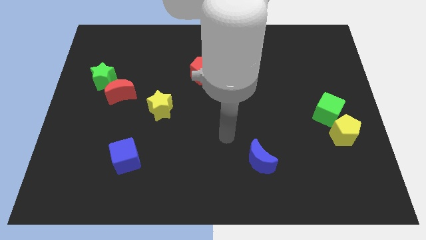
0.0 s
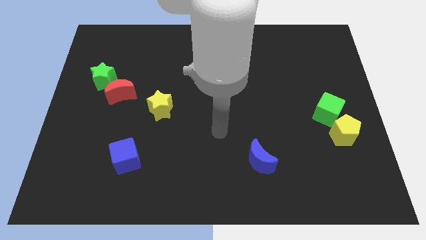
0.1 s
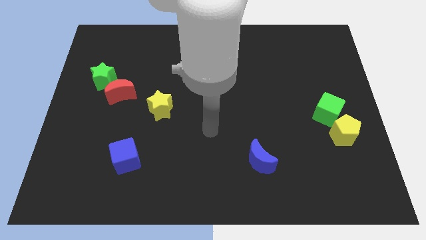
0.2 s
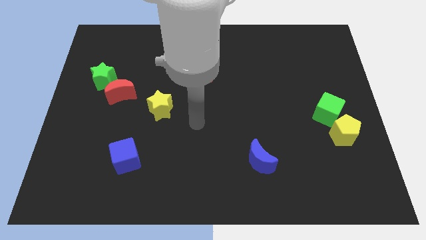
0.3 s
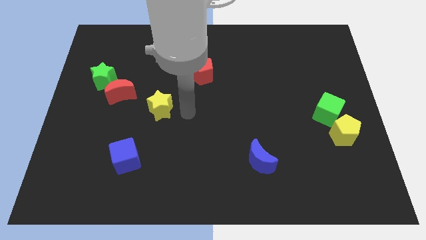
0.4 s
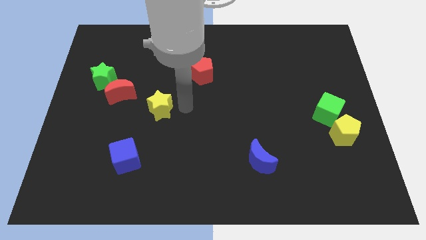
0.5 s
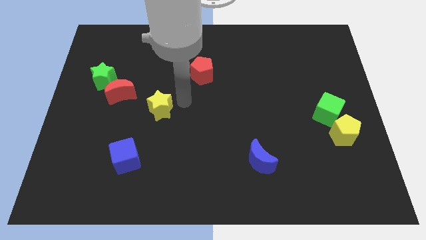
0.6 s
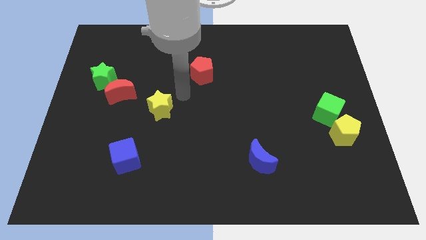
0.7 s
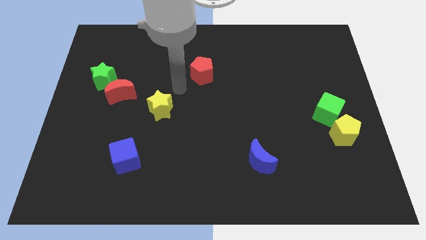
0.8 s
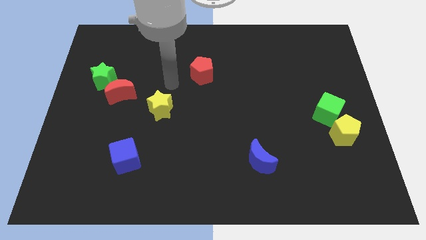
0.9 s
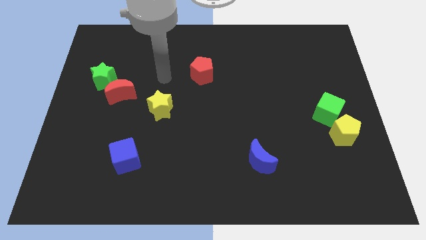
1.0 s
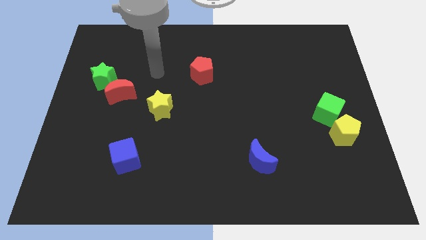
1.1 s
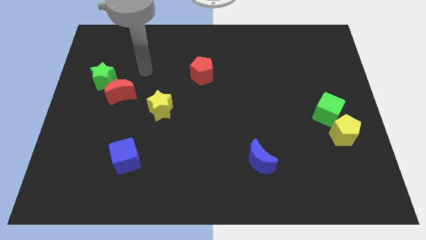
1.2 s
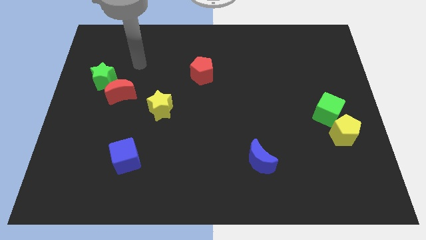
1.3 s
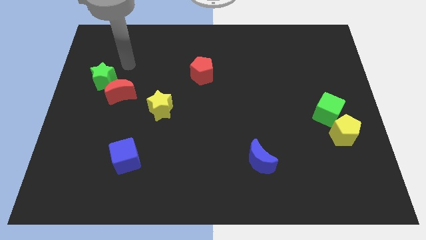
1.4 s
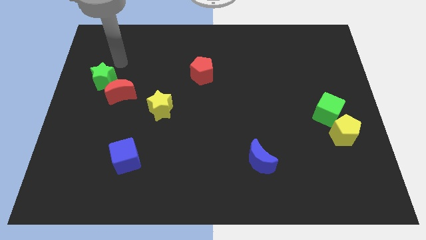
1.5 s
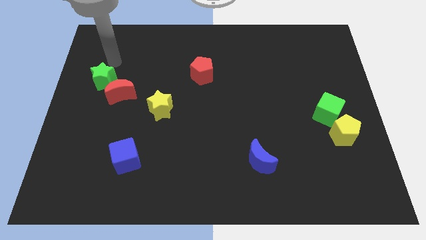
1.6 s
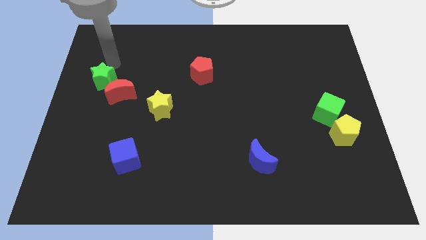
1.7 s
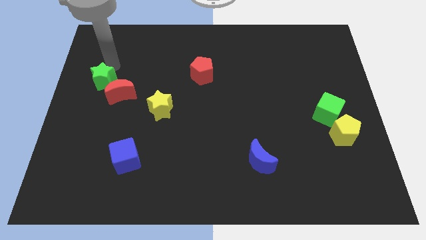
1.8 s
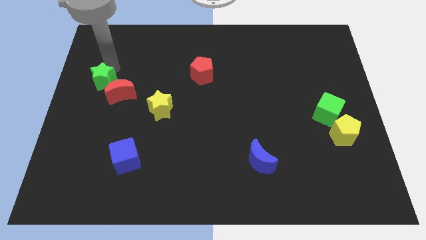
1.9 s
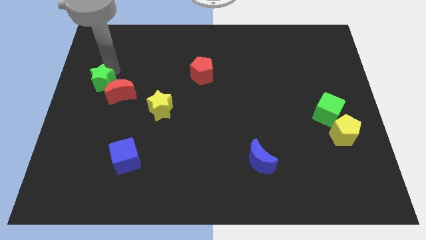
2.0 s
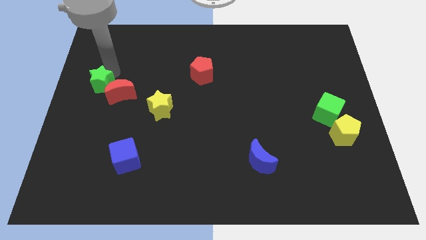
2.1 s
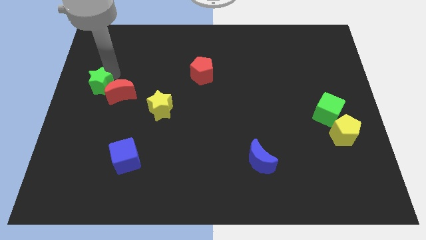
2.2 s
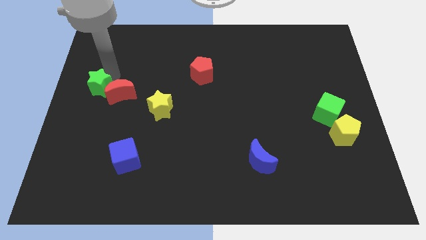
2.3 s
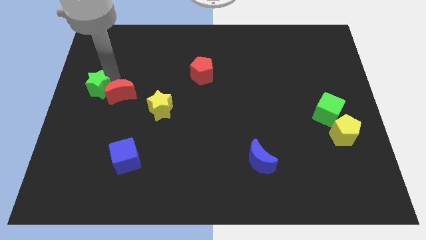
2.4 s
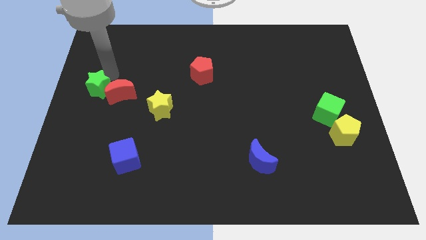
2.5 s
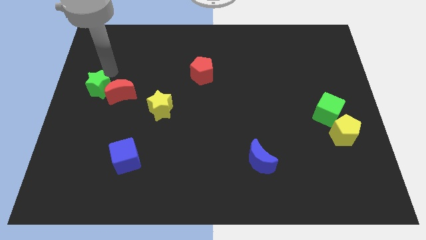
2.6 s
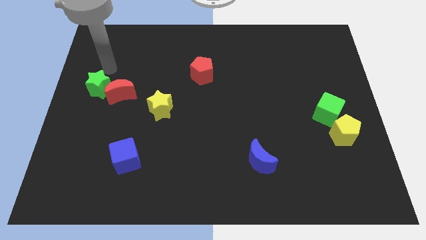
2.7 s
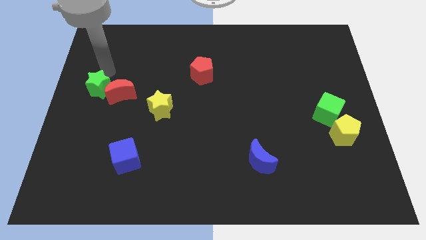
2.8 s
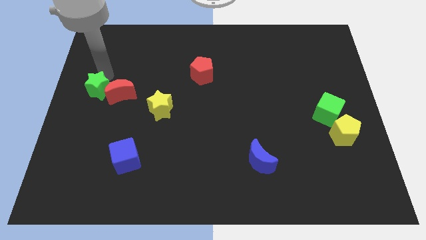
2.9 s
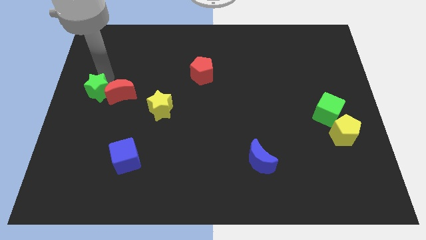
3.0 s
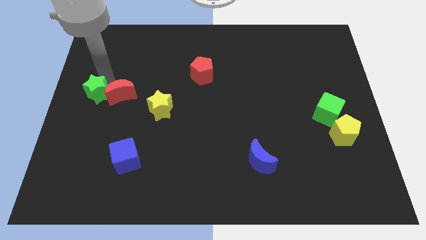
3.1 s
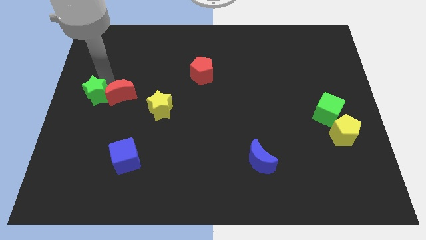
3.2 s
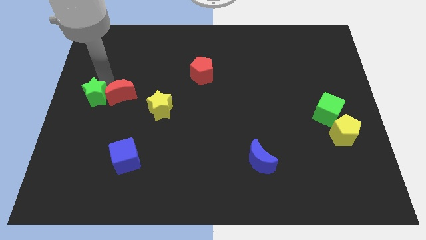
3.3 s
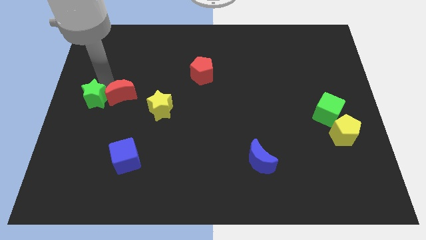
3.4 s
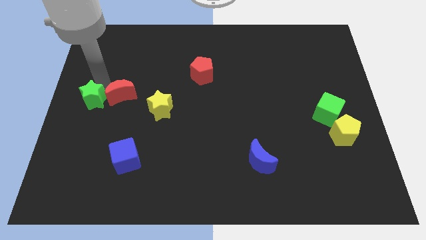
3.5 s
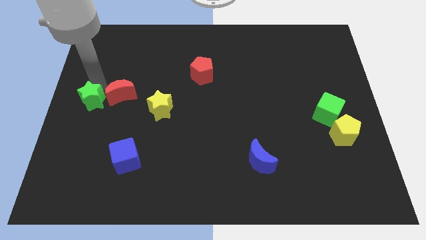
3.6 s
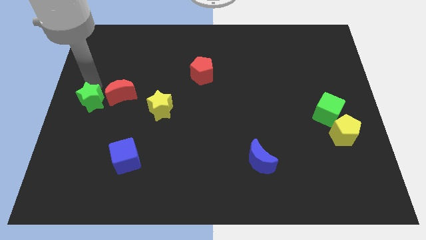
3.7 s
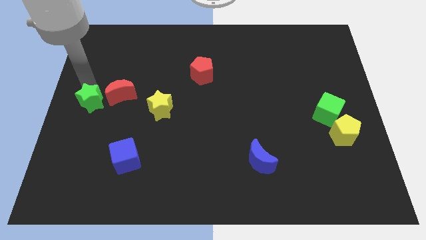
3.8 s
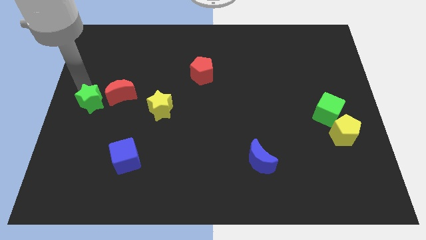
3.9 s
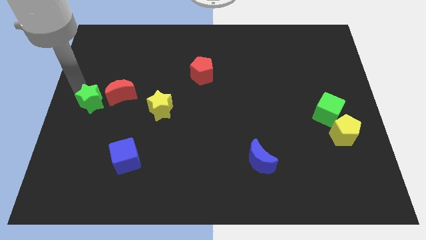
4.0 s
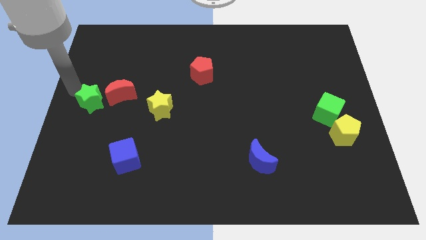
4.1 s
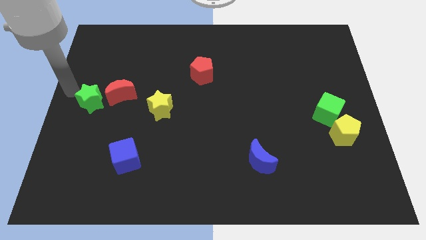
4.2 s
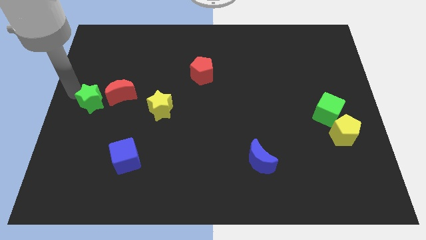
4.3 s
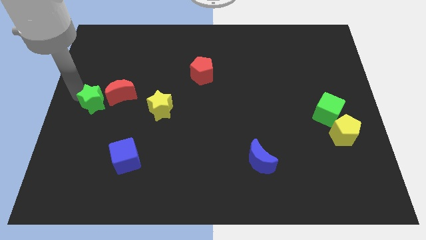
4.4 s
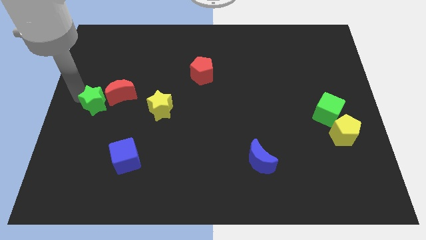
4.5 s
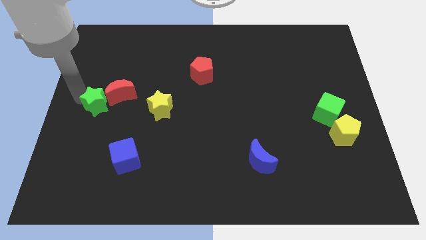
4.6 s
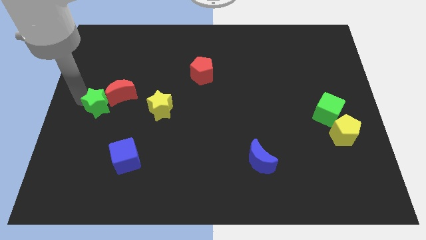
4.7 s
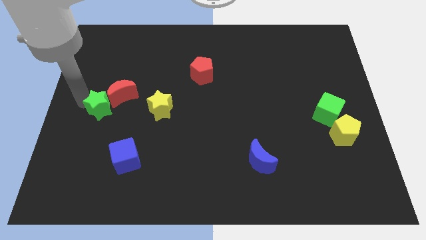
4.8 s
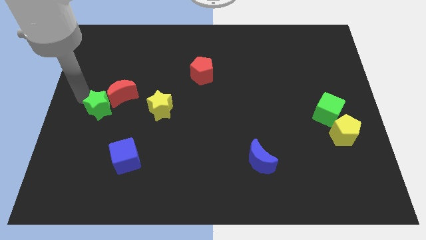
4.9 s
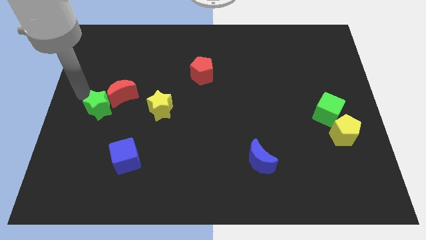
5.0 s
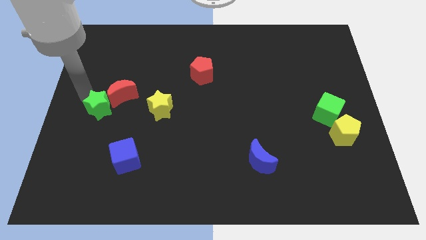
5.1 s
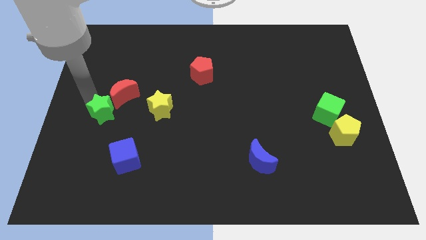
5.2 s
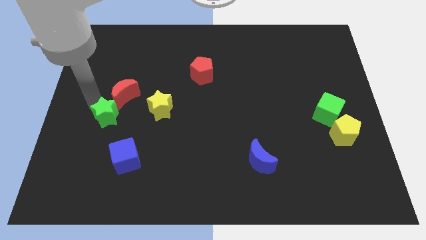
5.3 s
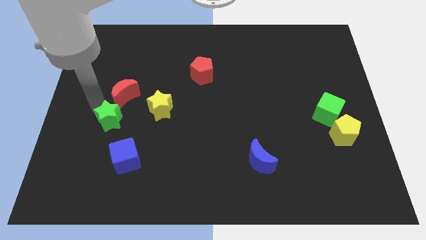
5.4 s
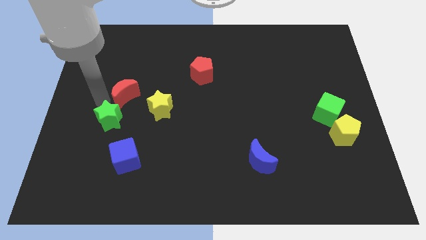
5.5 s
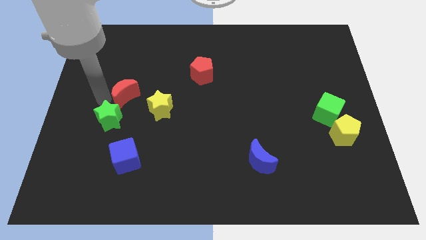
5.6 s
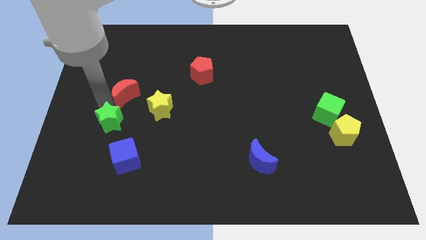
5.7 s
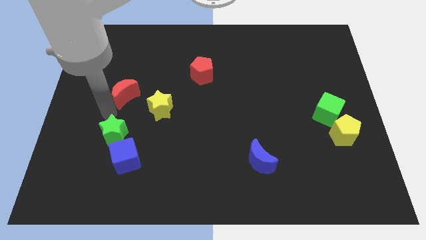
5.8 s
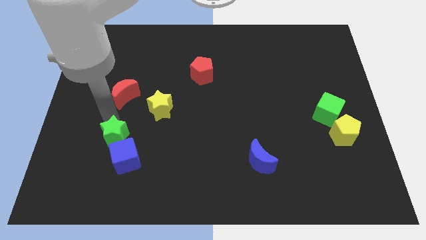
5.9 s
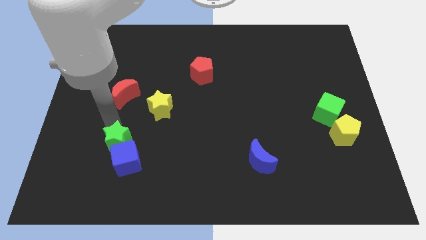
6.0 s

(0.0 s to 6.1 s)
slide the green star close to the blue cube

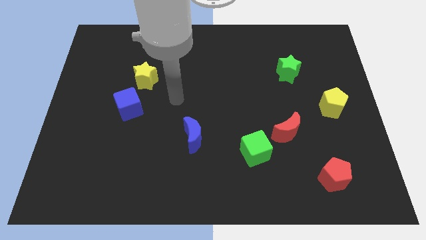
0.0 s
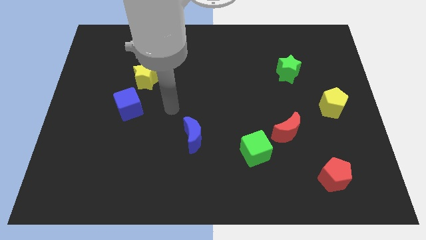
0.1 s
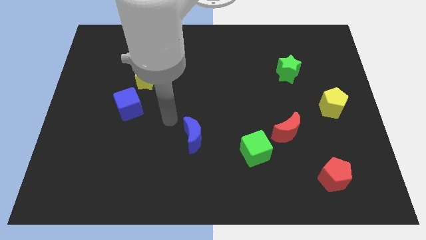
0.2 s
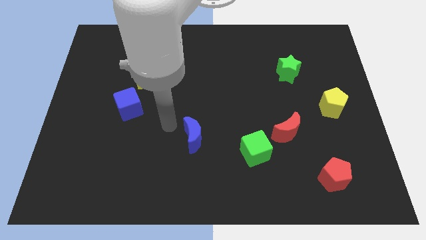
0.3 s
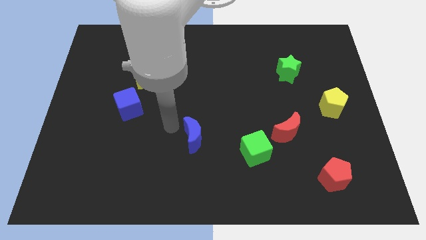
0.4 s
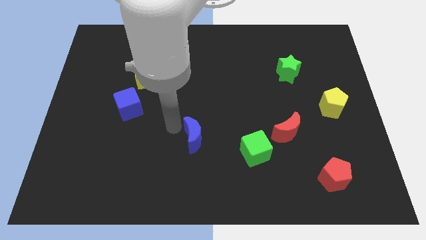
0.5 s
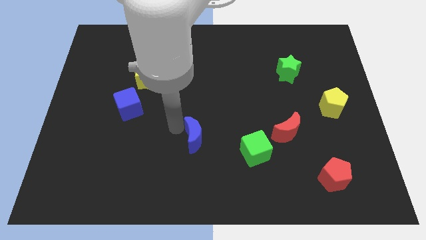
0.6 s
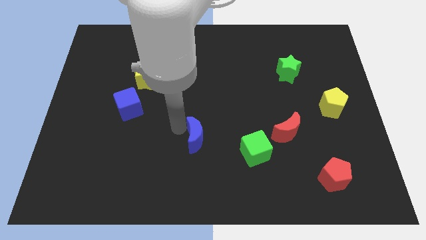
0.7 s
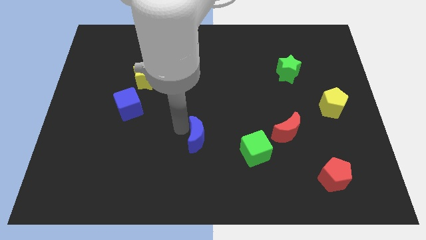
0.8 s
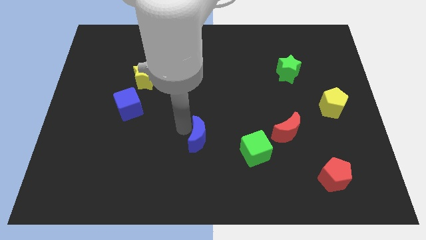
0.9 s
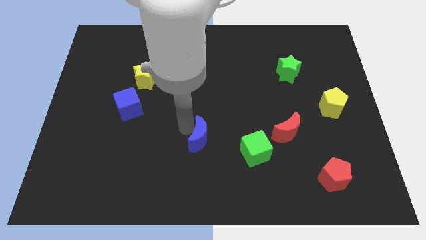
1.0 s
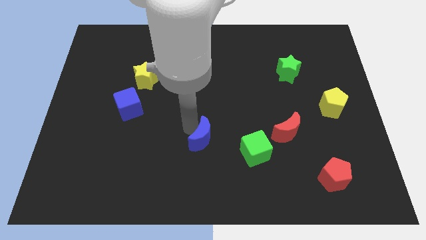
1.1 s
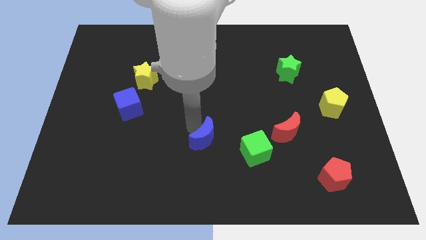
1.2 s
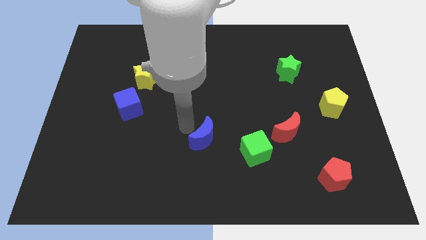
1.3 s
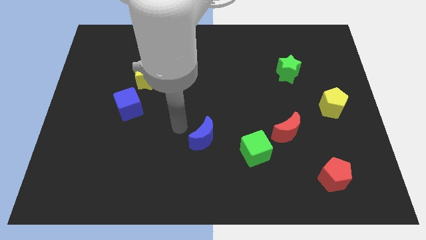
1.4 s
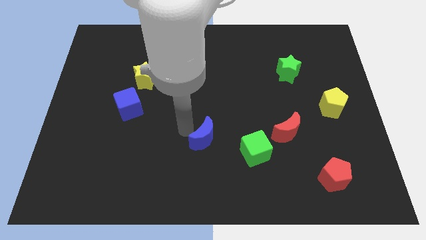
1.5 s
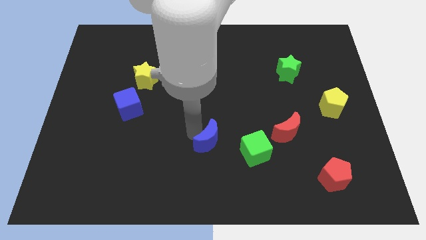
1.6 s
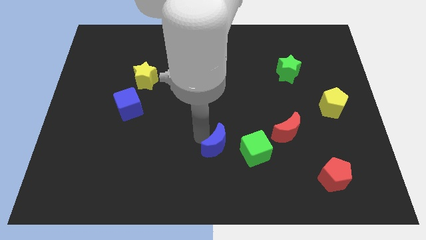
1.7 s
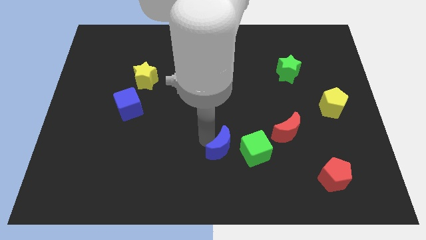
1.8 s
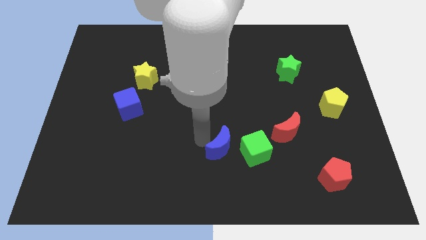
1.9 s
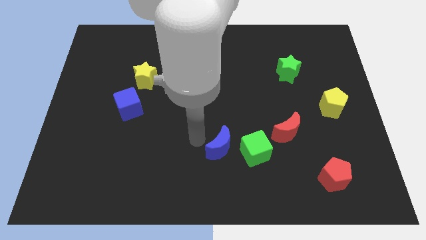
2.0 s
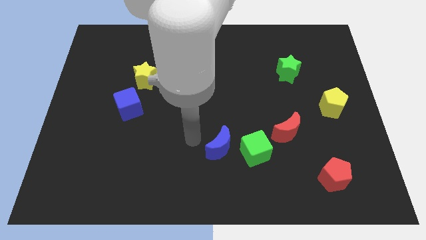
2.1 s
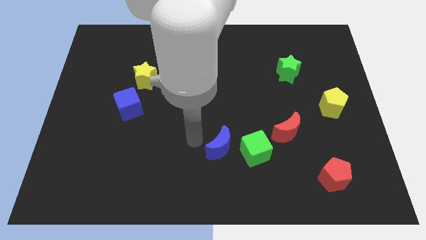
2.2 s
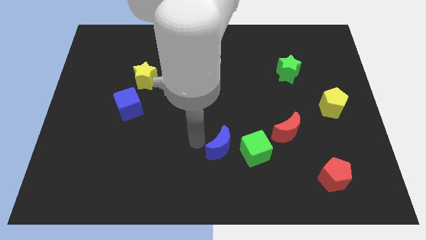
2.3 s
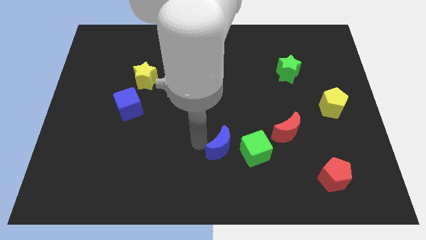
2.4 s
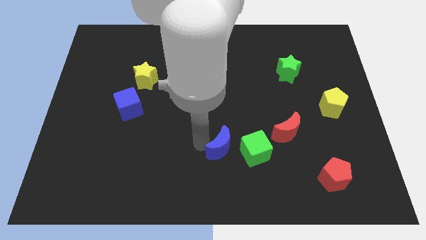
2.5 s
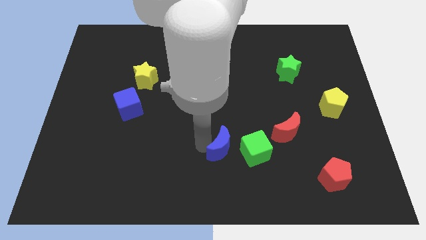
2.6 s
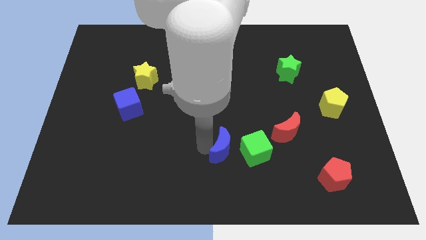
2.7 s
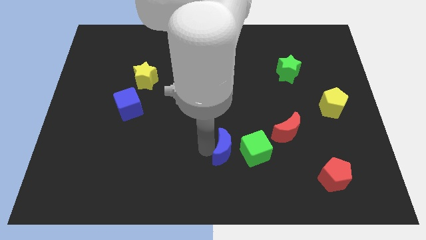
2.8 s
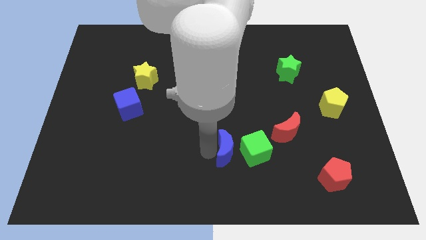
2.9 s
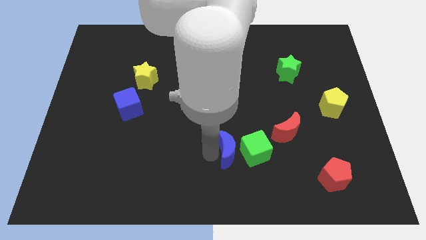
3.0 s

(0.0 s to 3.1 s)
push the blue moon towards the green cube
